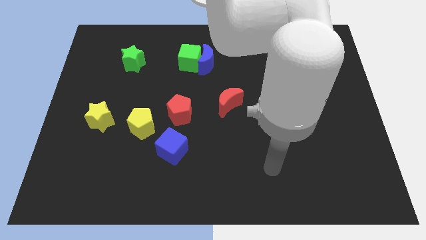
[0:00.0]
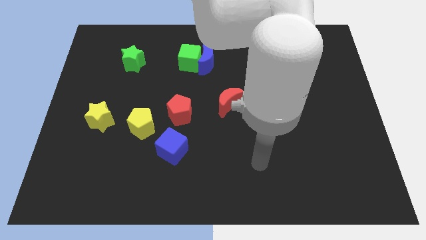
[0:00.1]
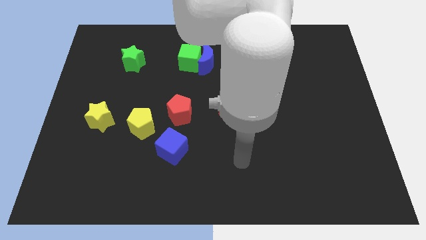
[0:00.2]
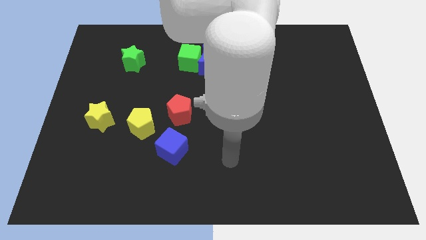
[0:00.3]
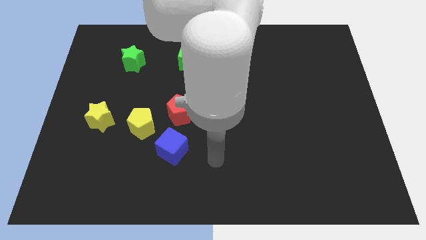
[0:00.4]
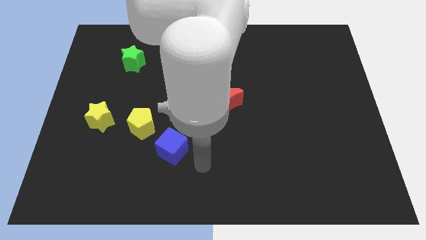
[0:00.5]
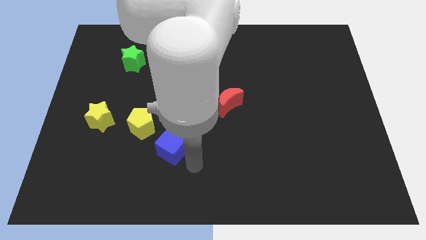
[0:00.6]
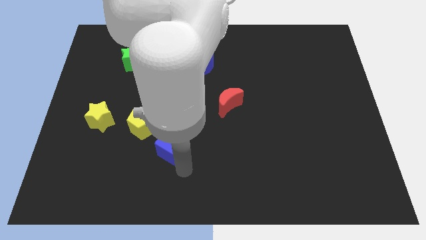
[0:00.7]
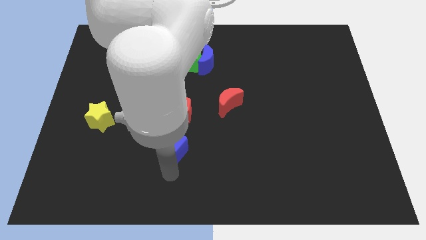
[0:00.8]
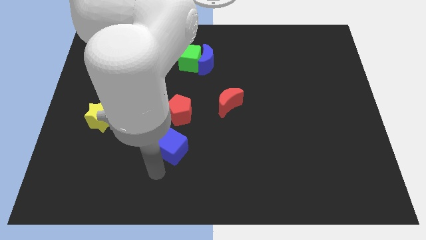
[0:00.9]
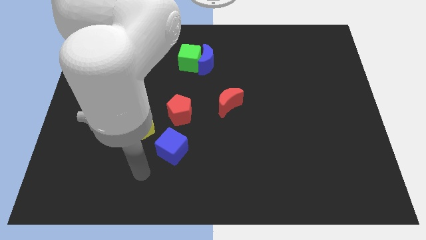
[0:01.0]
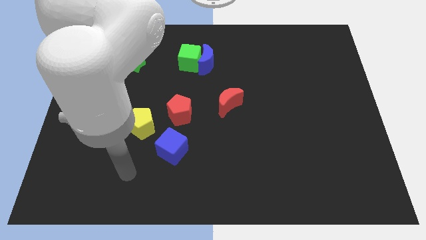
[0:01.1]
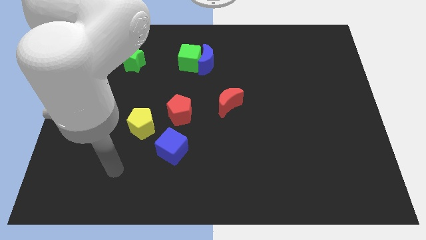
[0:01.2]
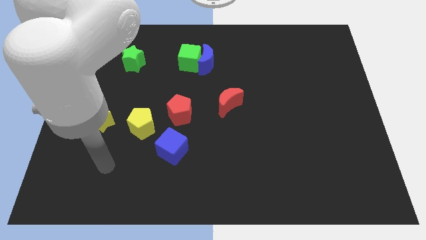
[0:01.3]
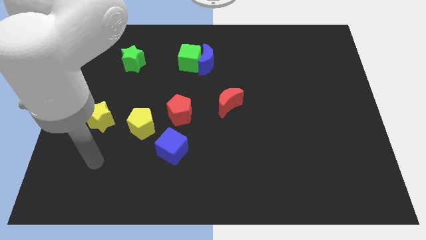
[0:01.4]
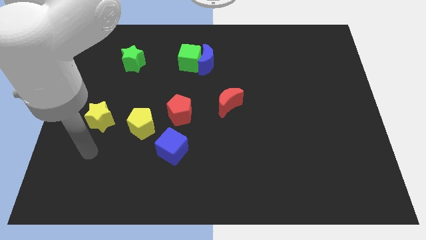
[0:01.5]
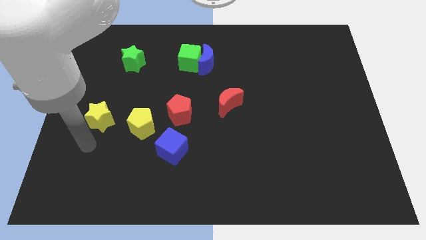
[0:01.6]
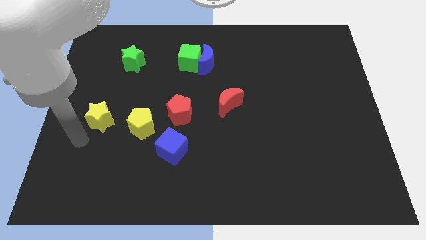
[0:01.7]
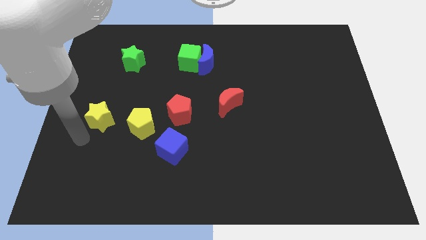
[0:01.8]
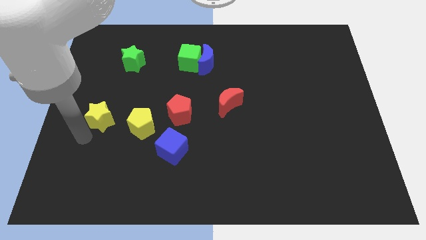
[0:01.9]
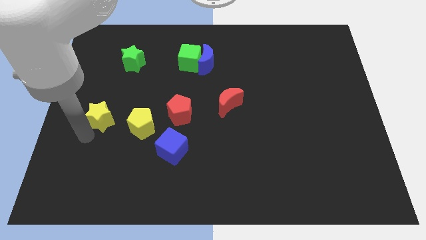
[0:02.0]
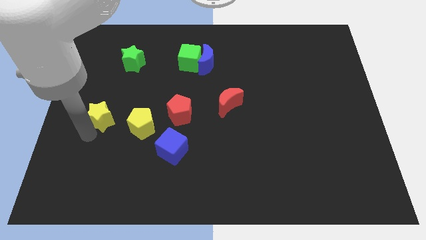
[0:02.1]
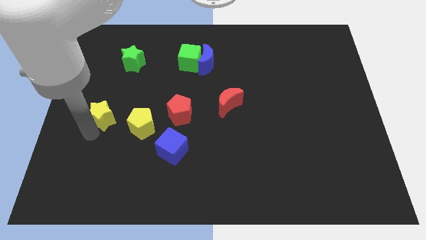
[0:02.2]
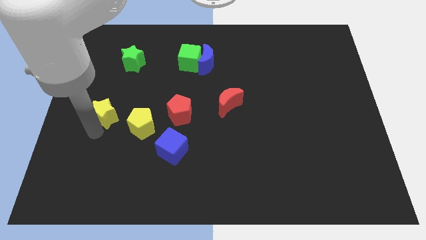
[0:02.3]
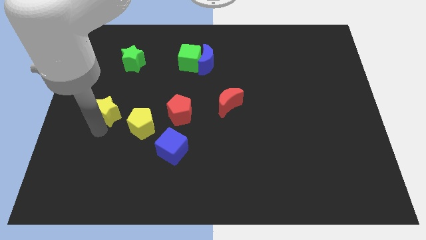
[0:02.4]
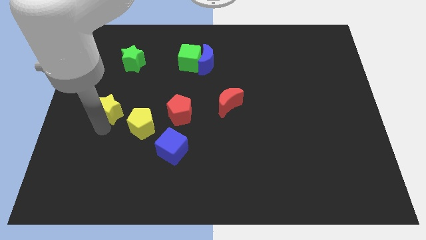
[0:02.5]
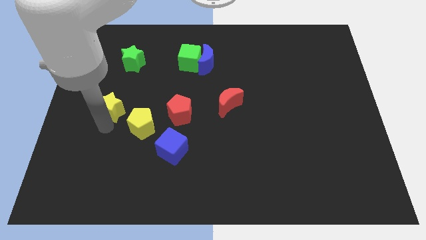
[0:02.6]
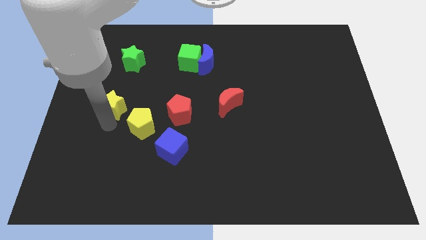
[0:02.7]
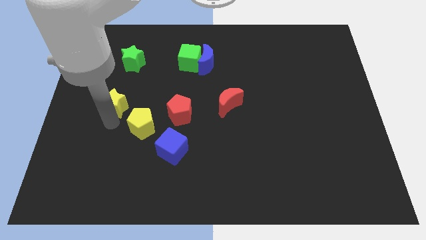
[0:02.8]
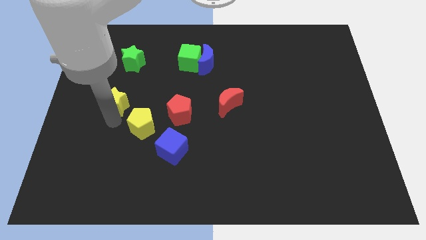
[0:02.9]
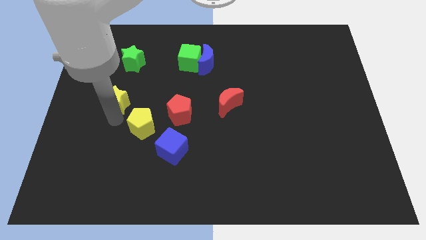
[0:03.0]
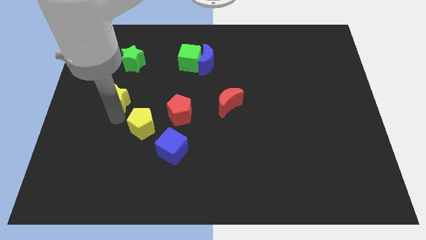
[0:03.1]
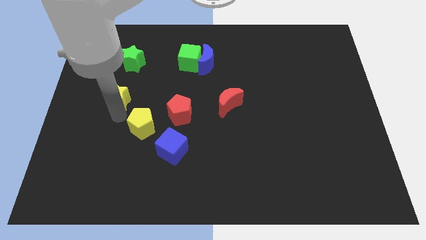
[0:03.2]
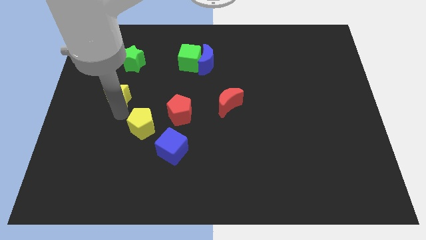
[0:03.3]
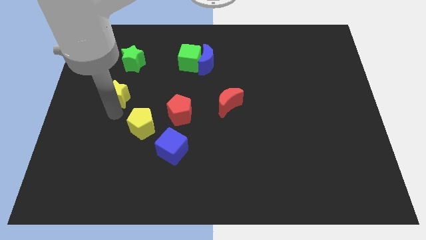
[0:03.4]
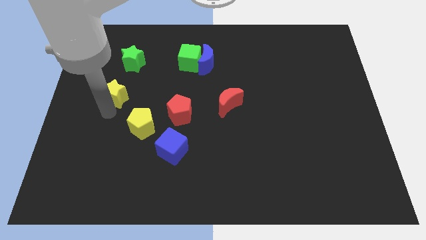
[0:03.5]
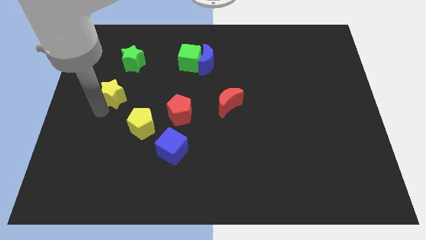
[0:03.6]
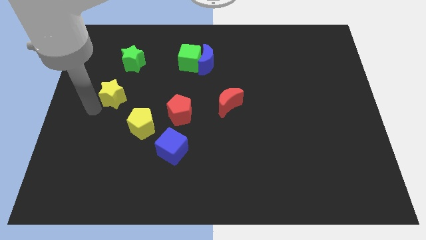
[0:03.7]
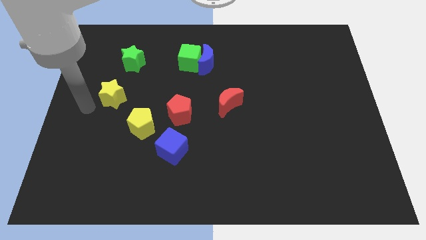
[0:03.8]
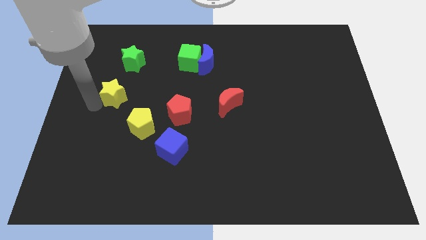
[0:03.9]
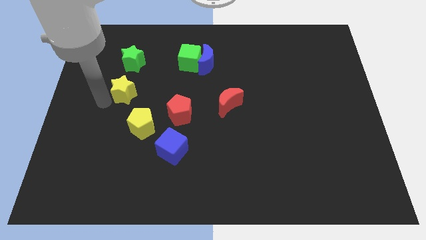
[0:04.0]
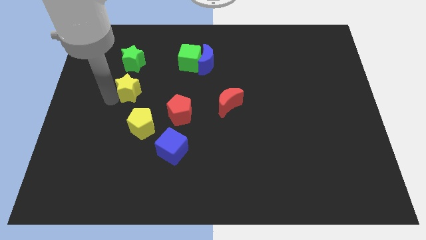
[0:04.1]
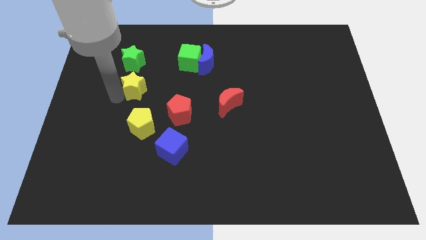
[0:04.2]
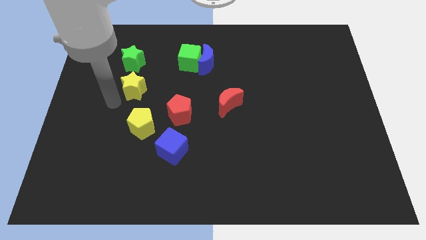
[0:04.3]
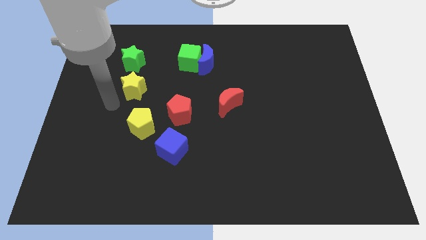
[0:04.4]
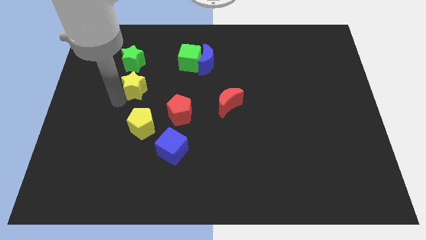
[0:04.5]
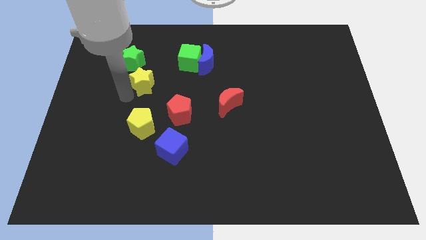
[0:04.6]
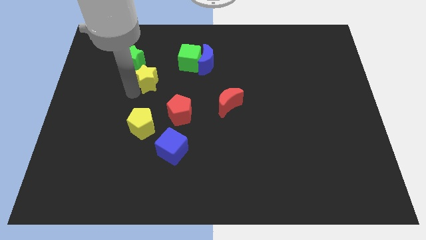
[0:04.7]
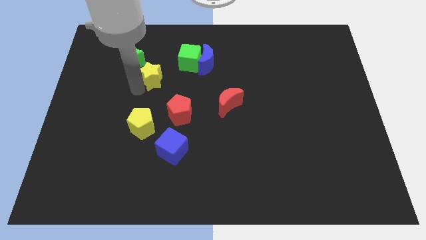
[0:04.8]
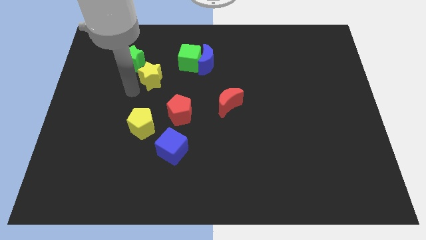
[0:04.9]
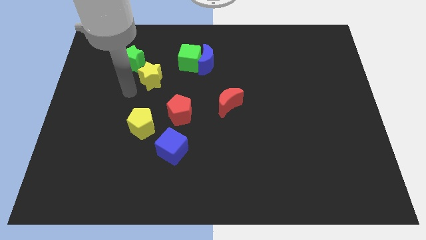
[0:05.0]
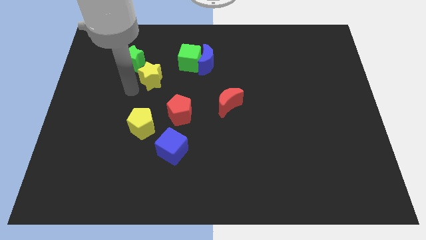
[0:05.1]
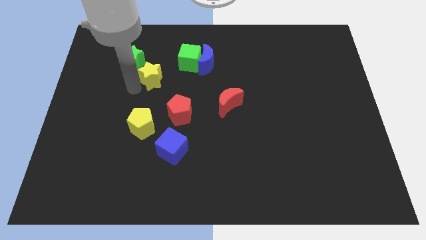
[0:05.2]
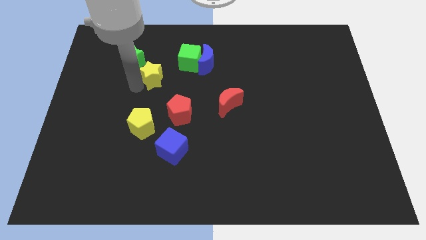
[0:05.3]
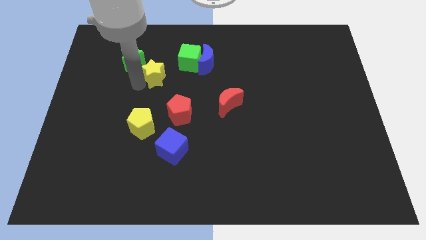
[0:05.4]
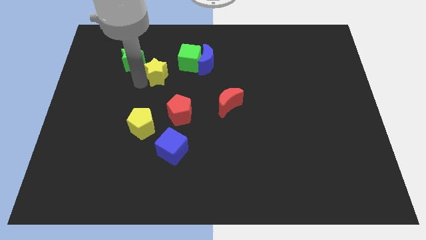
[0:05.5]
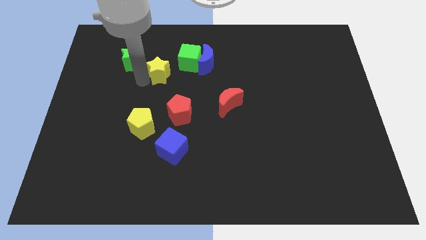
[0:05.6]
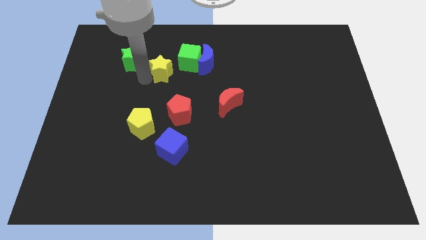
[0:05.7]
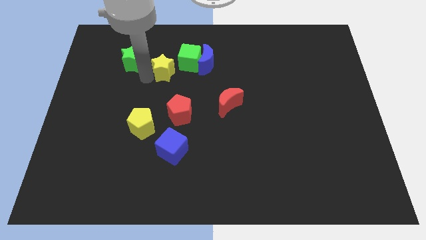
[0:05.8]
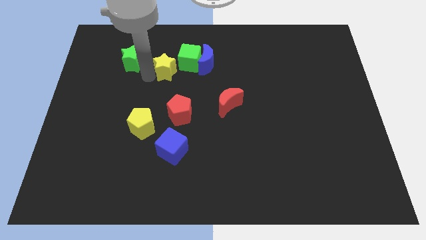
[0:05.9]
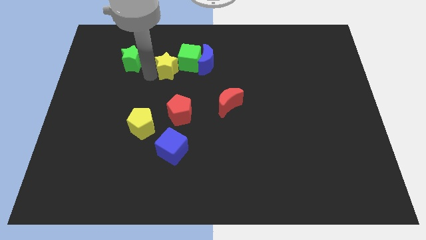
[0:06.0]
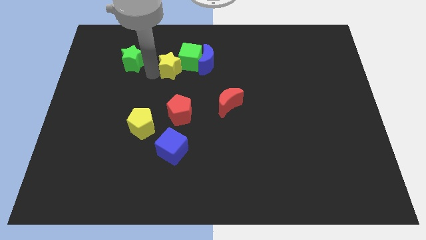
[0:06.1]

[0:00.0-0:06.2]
move the yellow star close to the green cube
